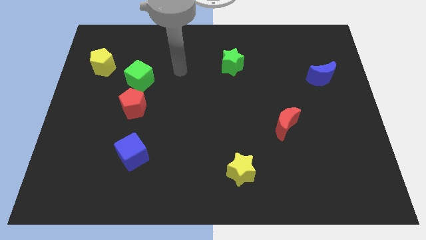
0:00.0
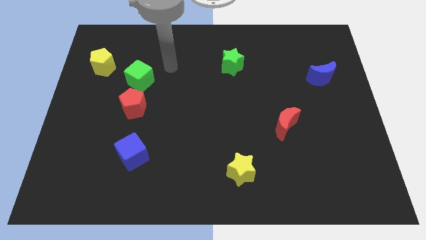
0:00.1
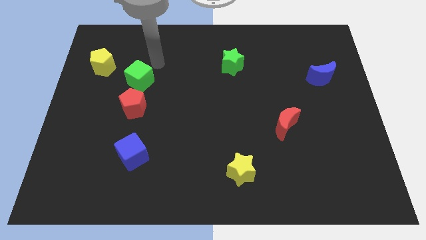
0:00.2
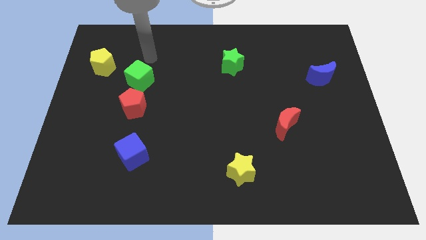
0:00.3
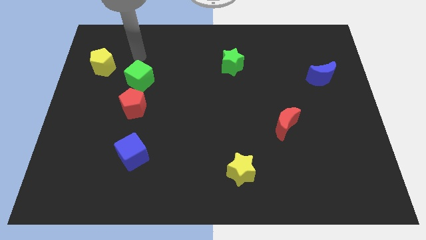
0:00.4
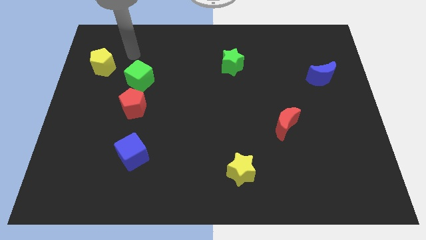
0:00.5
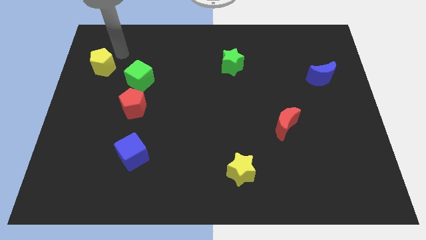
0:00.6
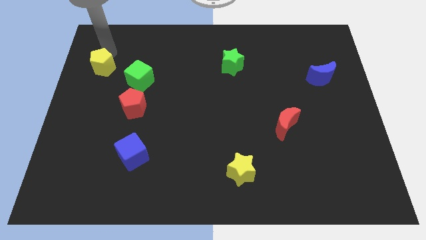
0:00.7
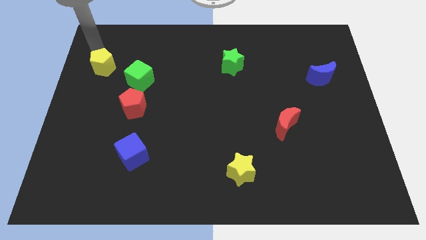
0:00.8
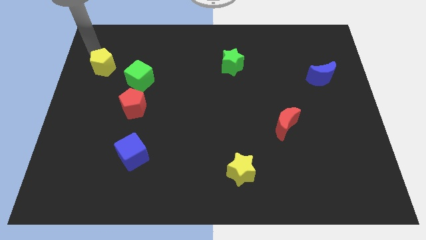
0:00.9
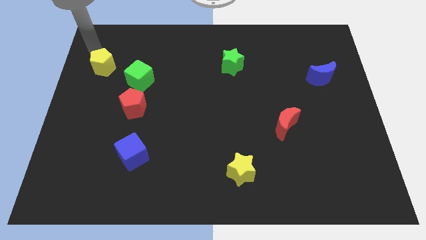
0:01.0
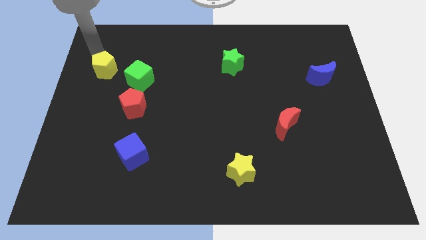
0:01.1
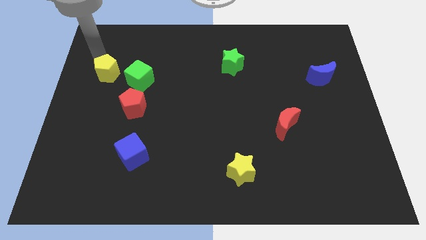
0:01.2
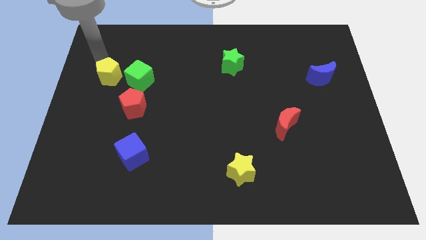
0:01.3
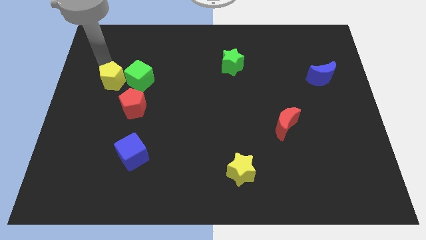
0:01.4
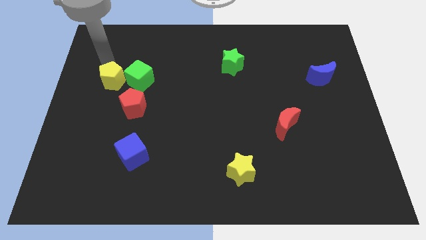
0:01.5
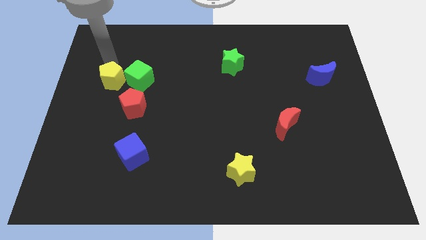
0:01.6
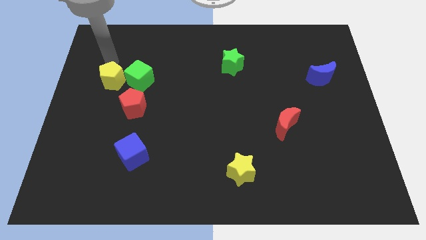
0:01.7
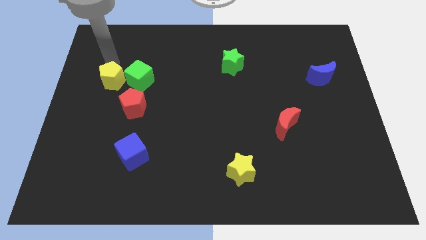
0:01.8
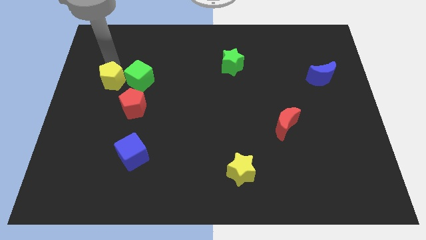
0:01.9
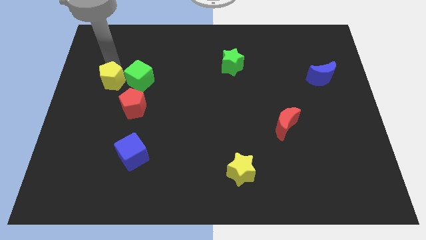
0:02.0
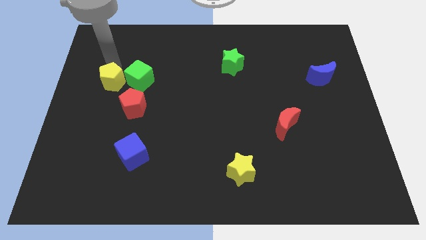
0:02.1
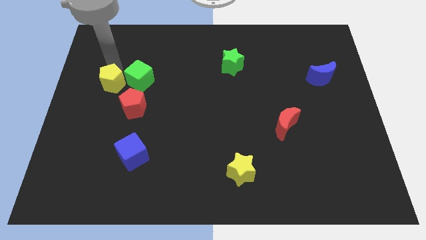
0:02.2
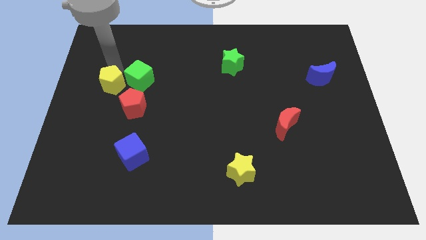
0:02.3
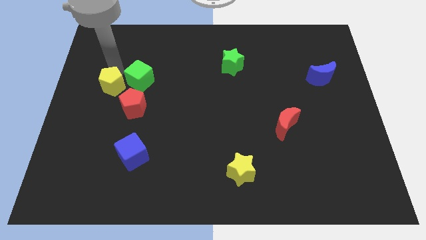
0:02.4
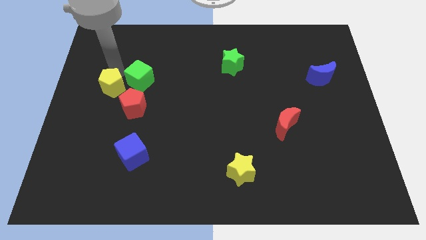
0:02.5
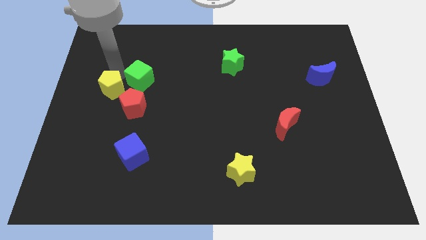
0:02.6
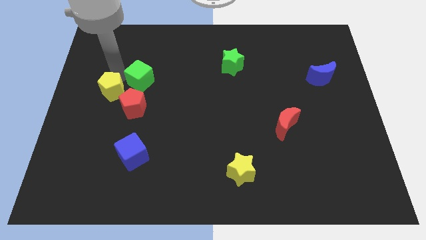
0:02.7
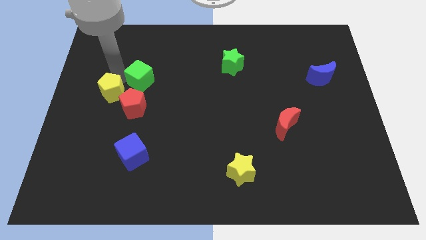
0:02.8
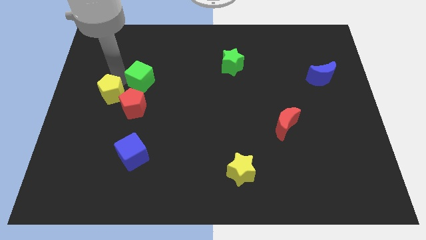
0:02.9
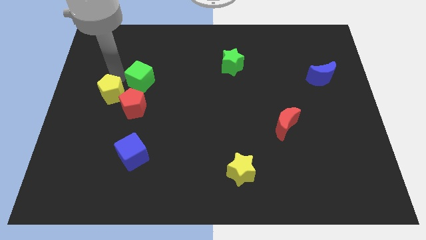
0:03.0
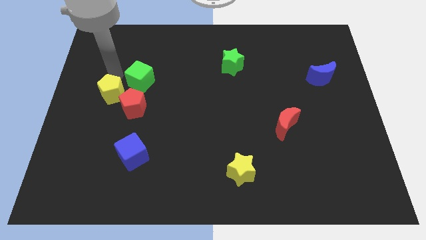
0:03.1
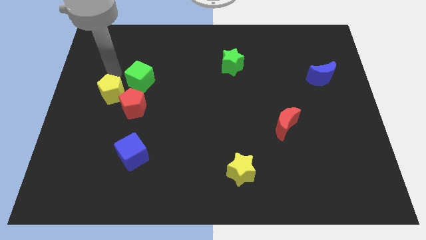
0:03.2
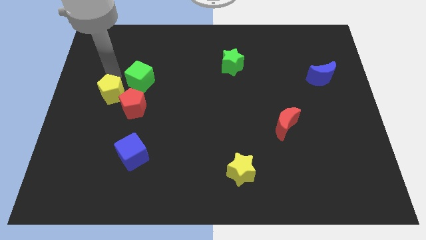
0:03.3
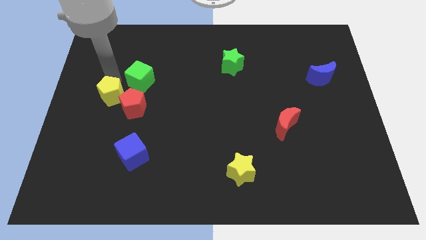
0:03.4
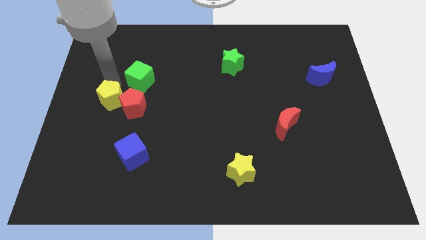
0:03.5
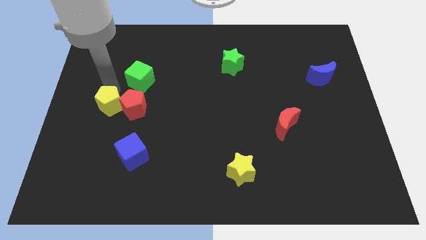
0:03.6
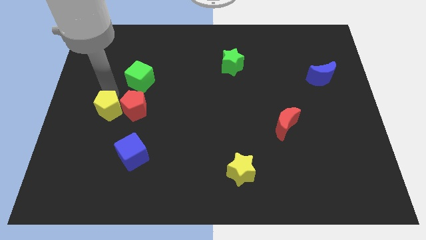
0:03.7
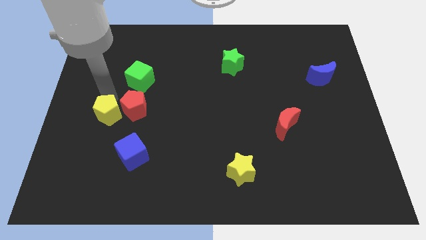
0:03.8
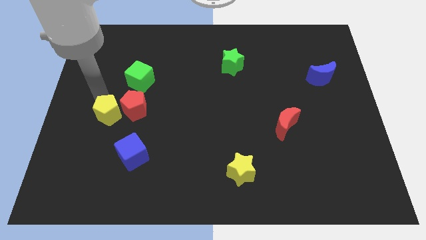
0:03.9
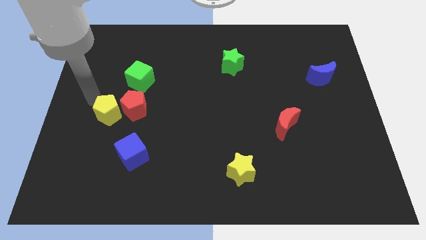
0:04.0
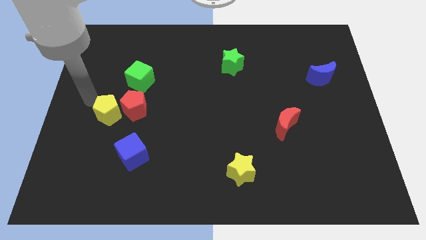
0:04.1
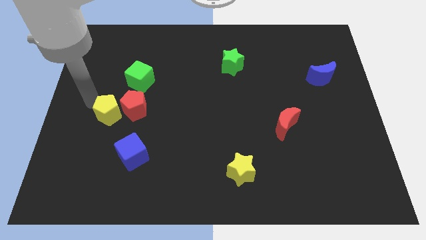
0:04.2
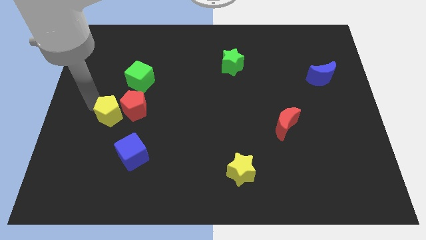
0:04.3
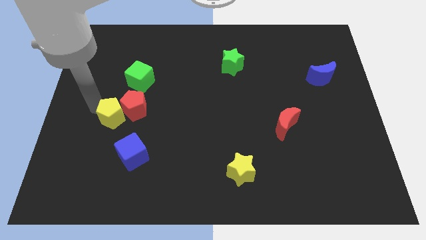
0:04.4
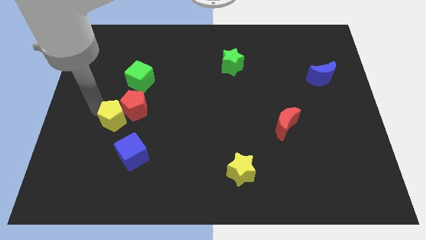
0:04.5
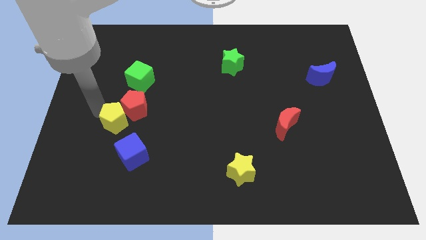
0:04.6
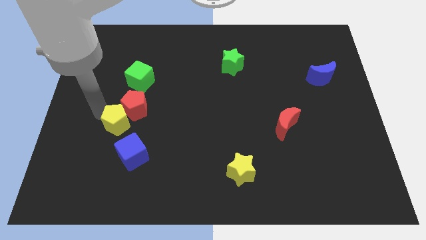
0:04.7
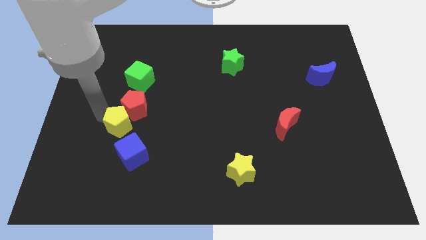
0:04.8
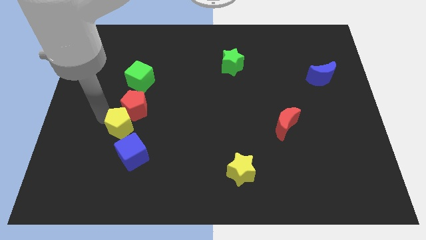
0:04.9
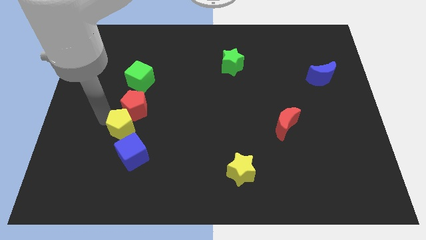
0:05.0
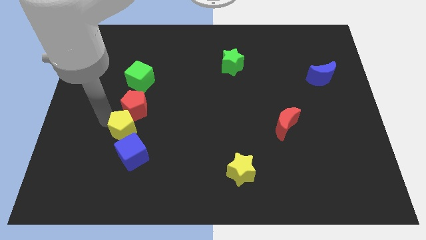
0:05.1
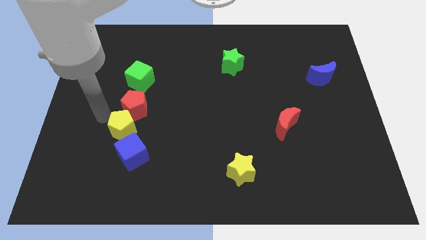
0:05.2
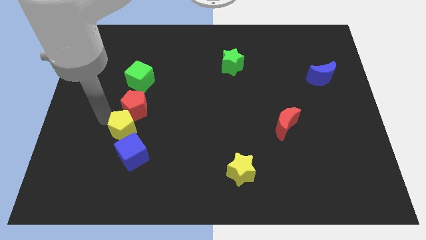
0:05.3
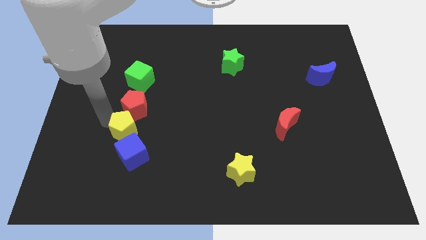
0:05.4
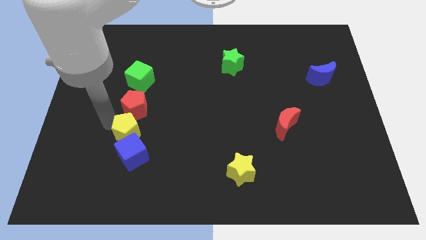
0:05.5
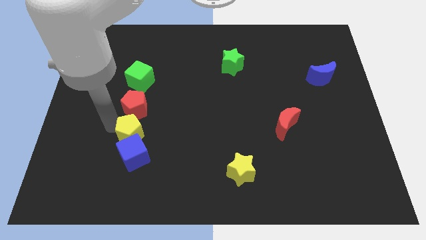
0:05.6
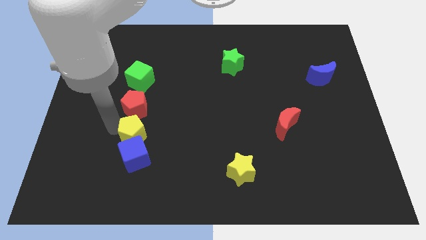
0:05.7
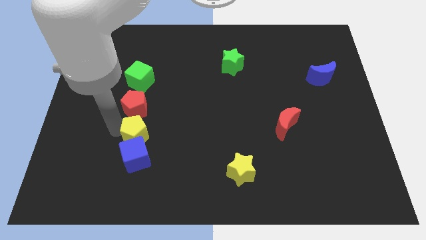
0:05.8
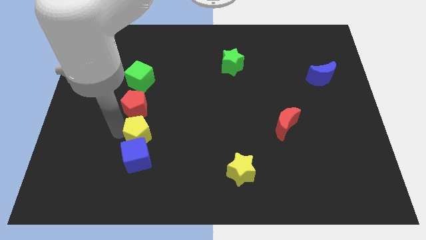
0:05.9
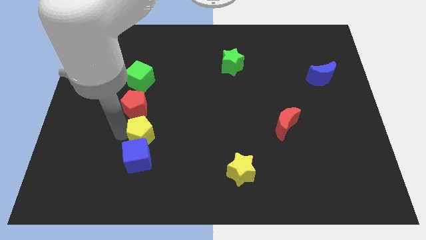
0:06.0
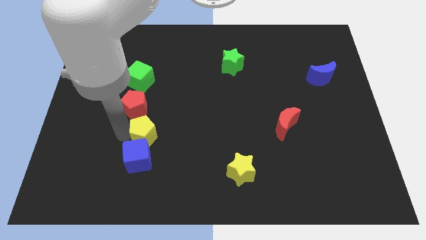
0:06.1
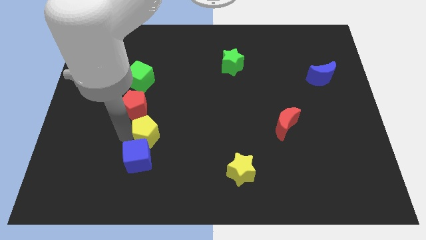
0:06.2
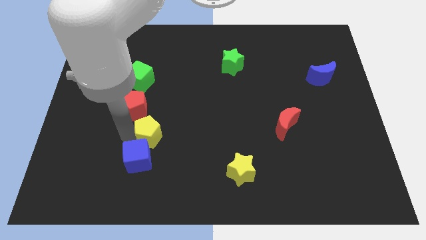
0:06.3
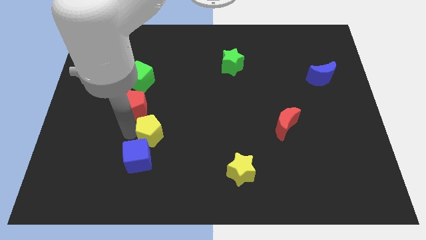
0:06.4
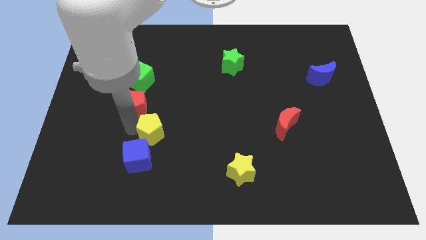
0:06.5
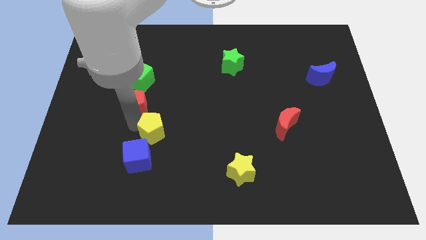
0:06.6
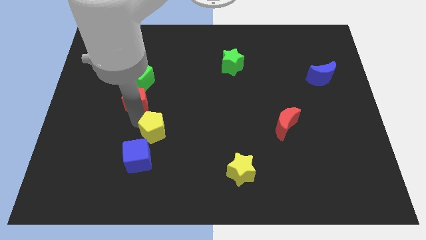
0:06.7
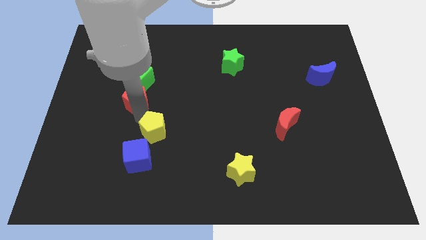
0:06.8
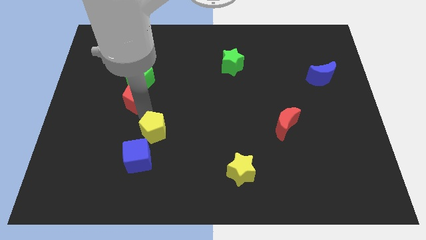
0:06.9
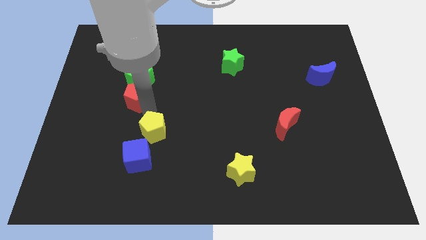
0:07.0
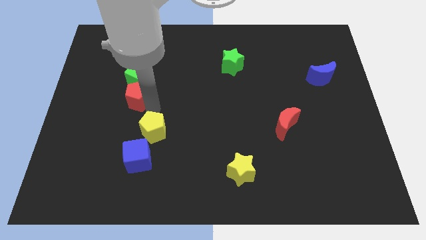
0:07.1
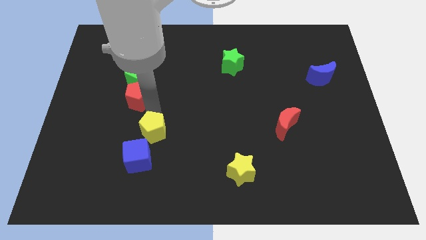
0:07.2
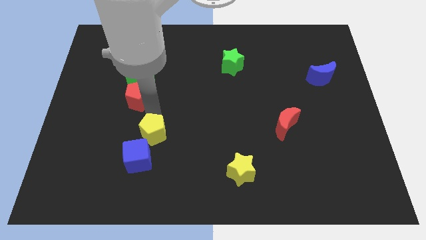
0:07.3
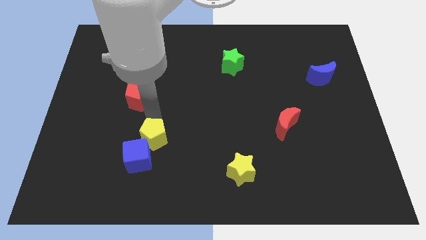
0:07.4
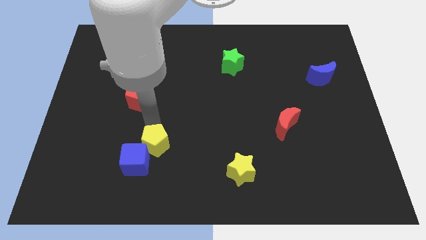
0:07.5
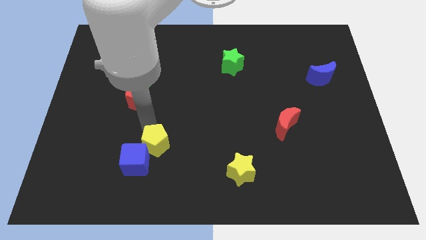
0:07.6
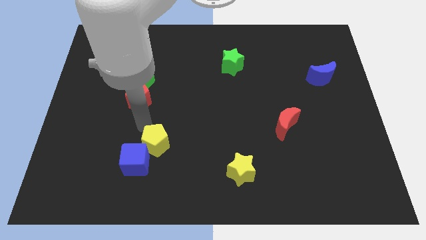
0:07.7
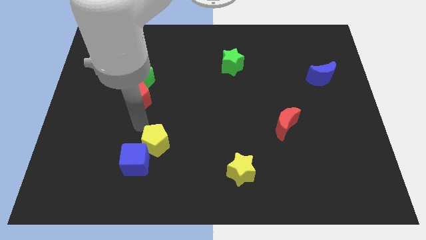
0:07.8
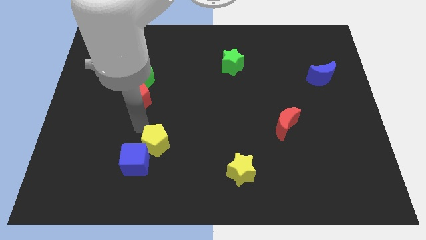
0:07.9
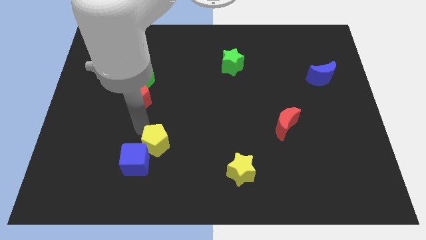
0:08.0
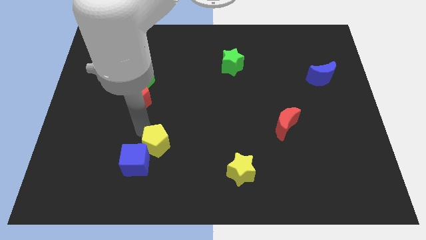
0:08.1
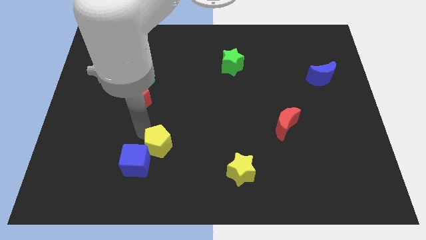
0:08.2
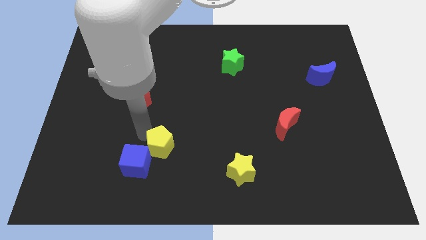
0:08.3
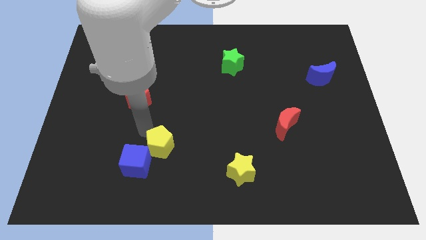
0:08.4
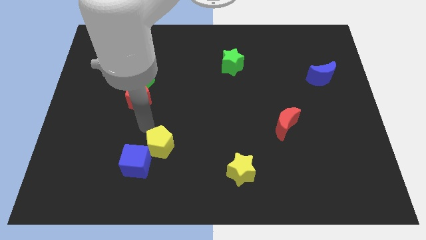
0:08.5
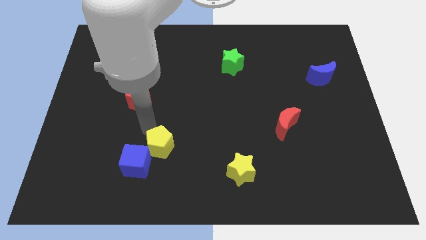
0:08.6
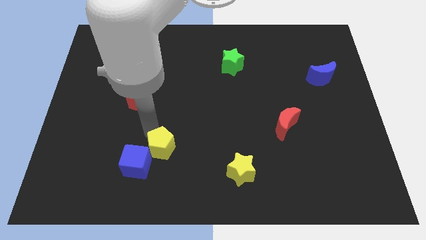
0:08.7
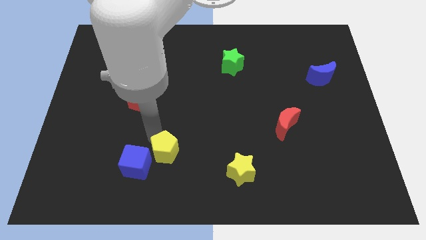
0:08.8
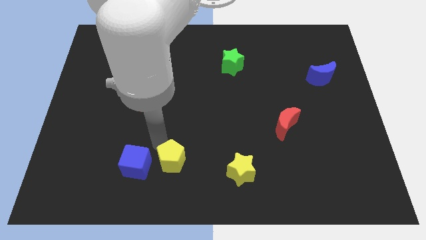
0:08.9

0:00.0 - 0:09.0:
move the yellow pentagon to the left of the yellow star
